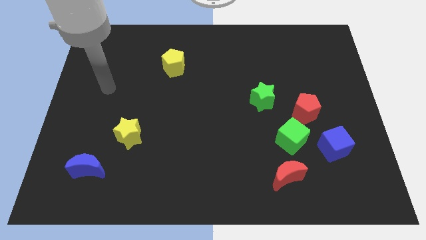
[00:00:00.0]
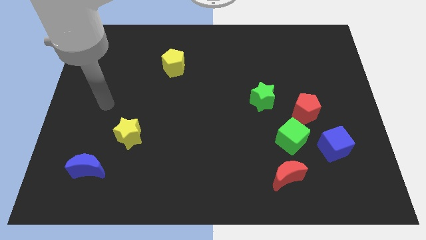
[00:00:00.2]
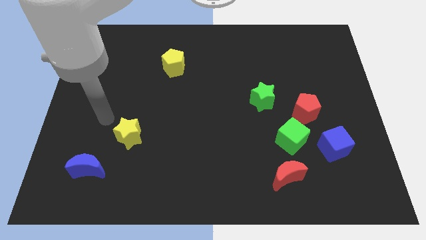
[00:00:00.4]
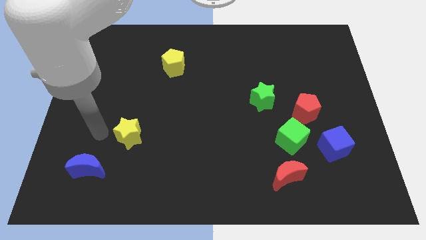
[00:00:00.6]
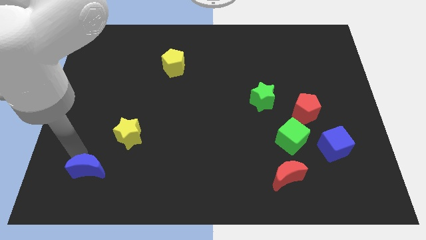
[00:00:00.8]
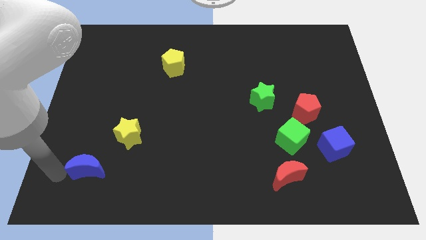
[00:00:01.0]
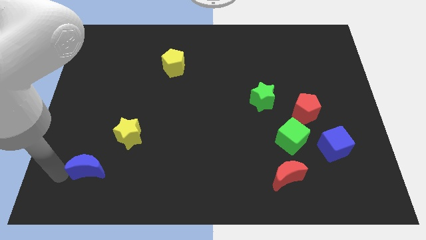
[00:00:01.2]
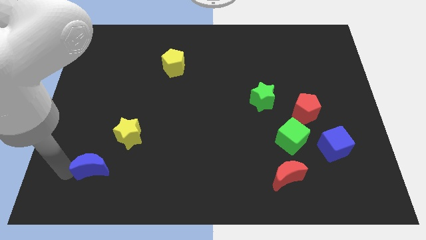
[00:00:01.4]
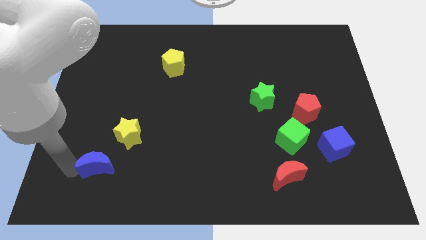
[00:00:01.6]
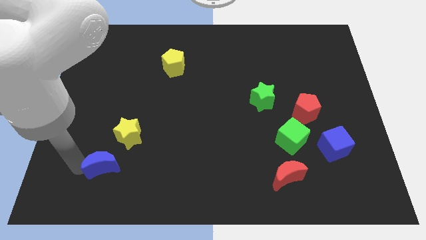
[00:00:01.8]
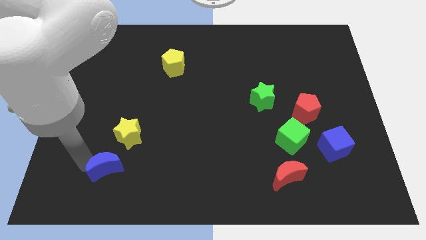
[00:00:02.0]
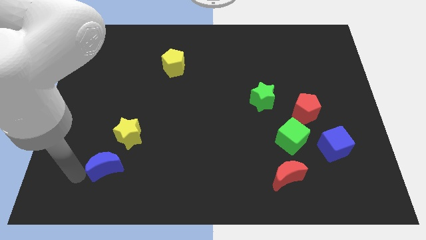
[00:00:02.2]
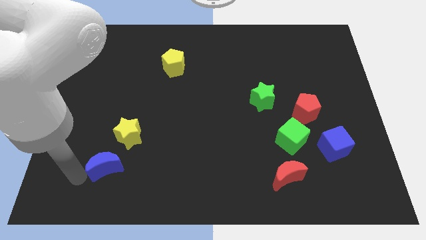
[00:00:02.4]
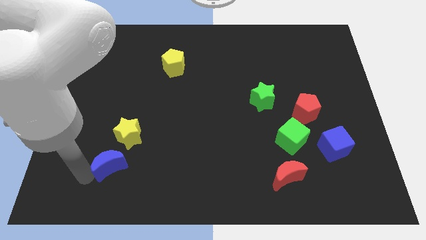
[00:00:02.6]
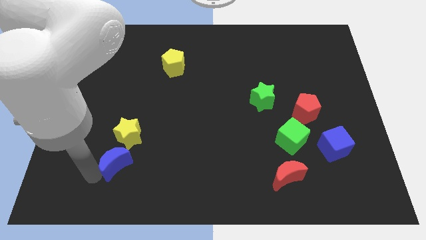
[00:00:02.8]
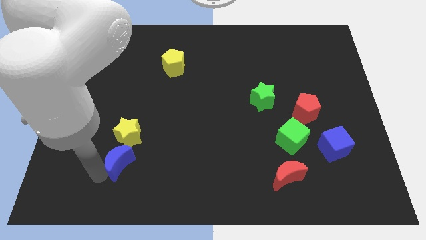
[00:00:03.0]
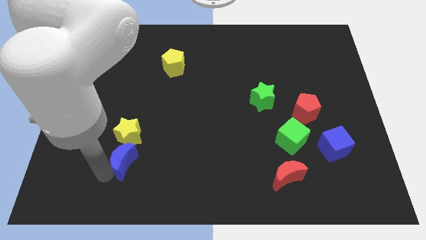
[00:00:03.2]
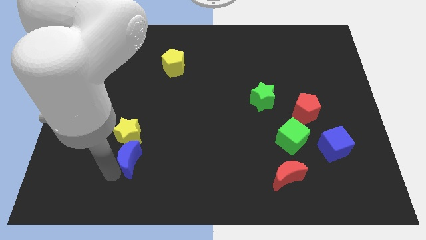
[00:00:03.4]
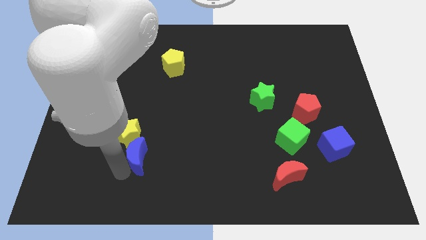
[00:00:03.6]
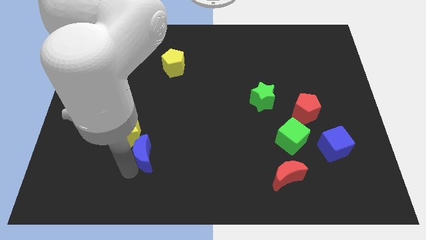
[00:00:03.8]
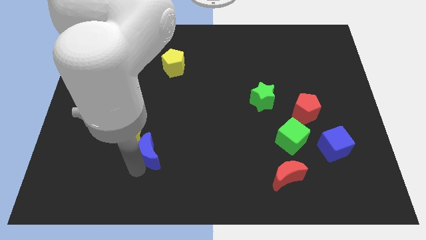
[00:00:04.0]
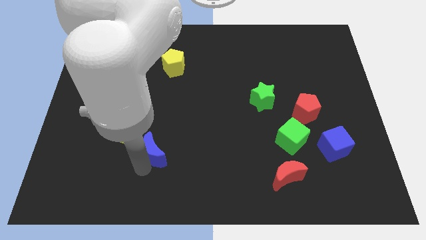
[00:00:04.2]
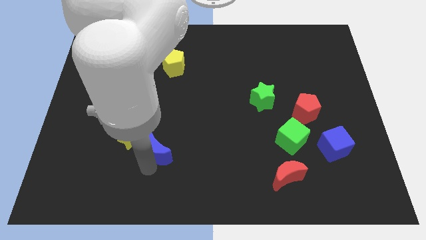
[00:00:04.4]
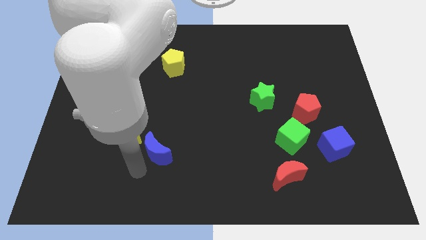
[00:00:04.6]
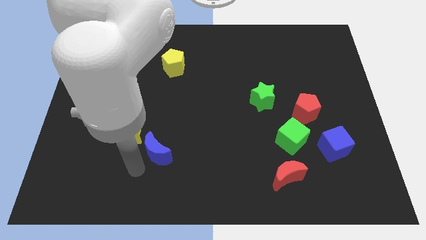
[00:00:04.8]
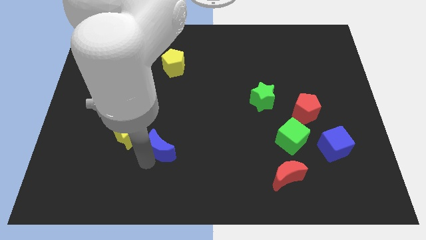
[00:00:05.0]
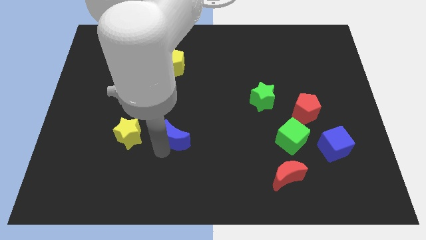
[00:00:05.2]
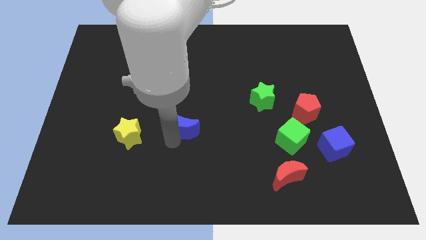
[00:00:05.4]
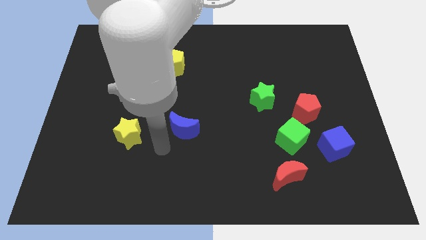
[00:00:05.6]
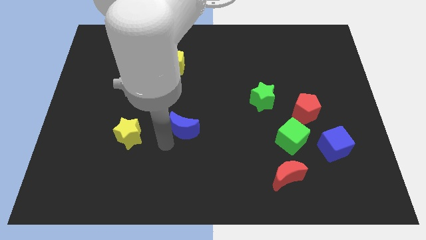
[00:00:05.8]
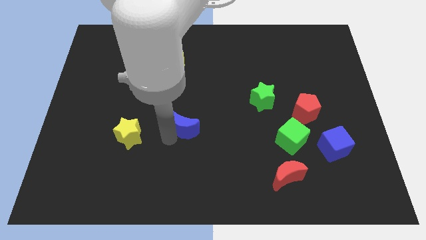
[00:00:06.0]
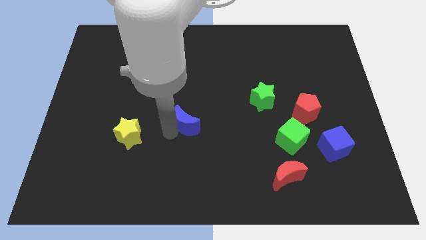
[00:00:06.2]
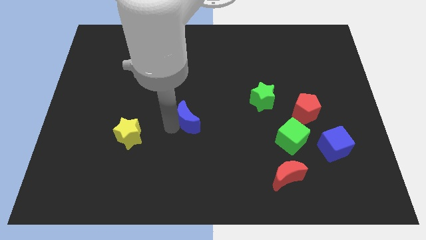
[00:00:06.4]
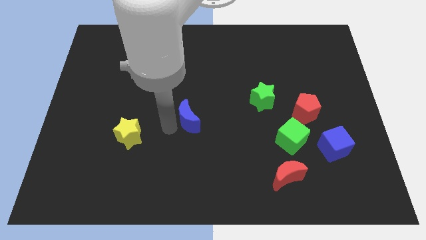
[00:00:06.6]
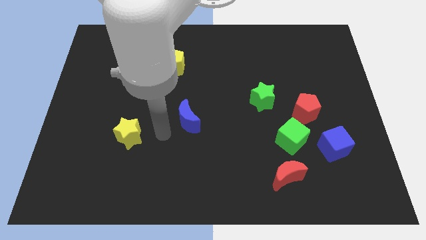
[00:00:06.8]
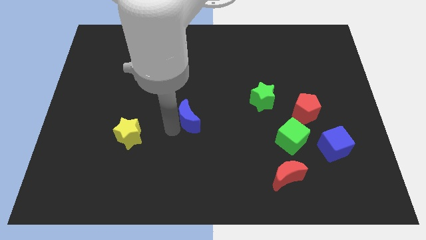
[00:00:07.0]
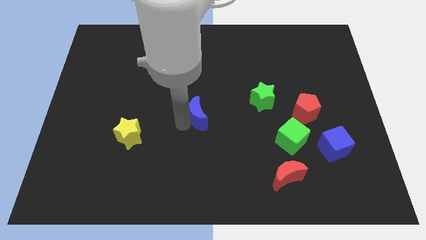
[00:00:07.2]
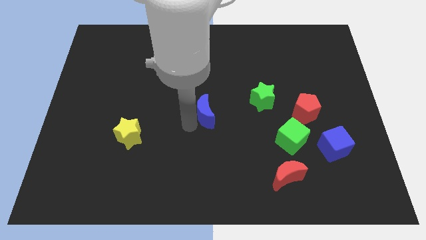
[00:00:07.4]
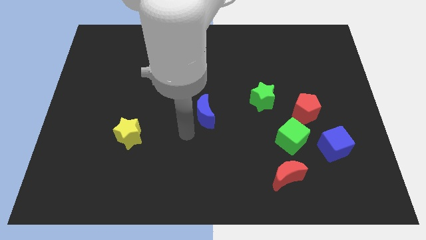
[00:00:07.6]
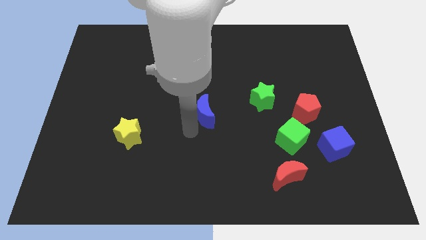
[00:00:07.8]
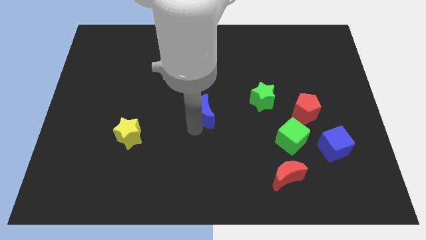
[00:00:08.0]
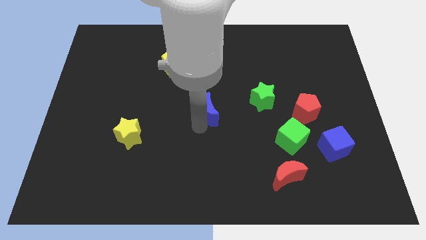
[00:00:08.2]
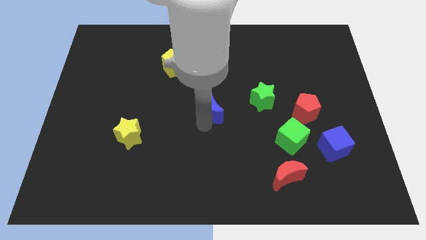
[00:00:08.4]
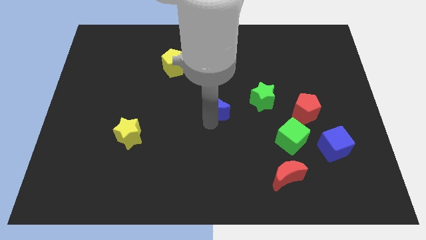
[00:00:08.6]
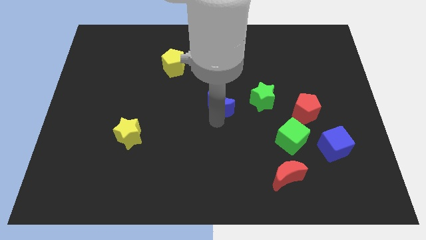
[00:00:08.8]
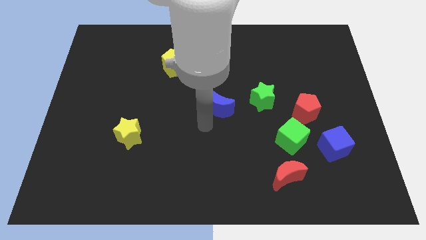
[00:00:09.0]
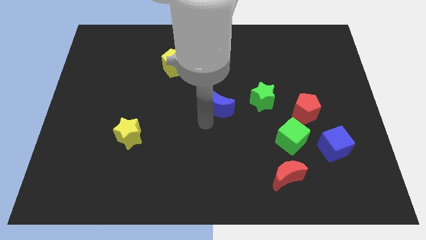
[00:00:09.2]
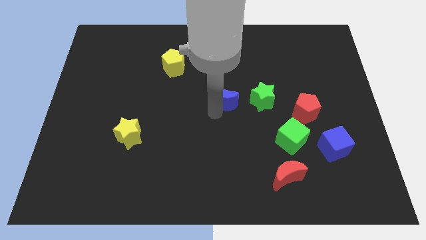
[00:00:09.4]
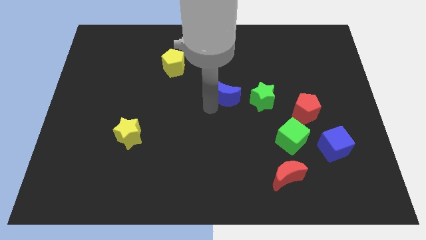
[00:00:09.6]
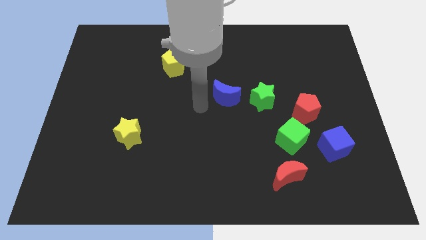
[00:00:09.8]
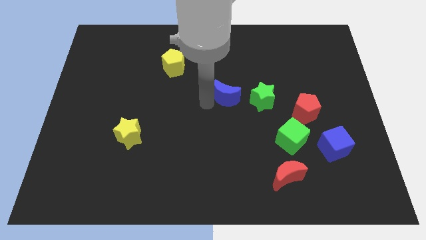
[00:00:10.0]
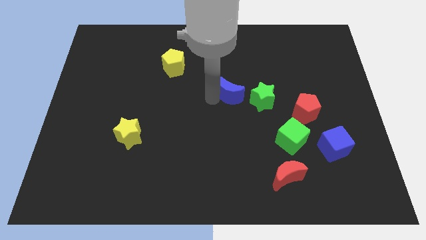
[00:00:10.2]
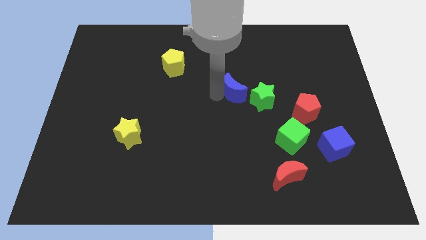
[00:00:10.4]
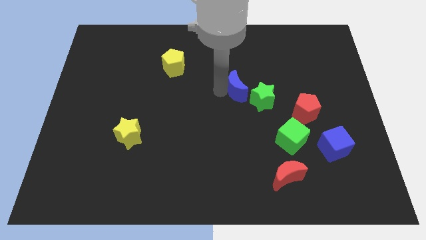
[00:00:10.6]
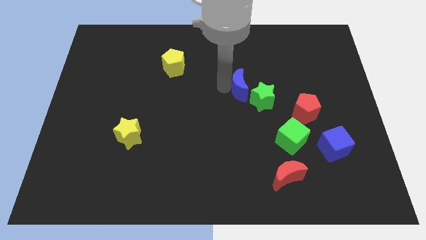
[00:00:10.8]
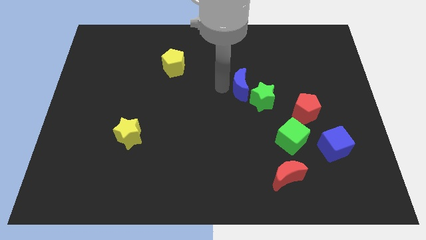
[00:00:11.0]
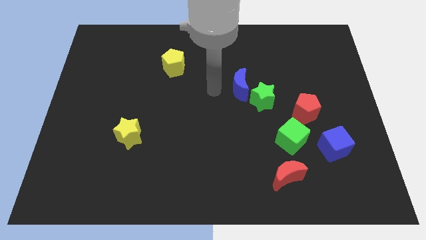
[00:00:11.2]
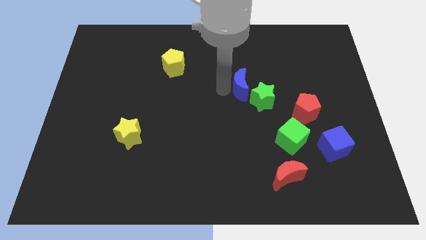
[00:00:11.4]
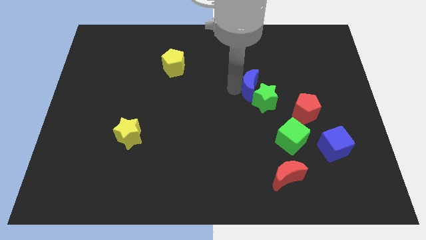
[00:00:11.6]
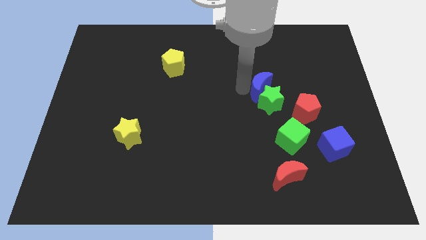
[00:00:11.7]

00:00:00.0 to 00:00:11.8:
move the blue moon to the top right side of the green star

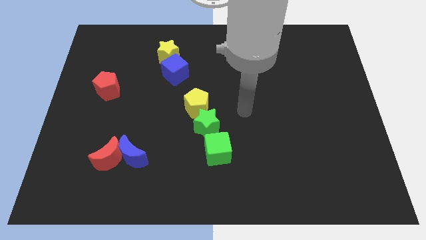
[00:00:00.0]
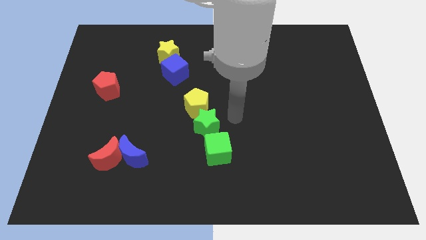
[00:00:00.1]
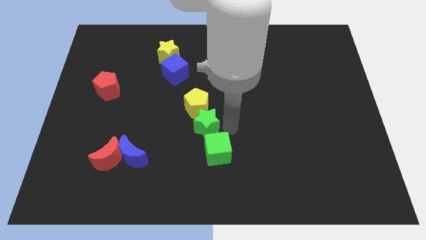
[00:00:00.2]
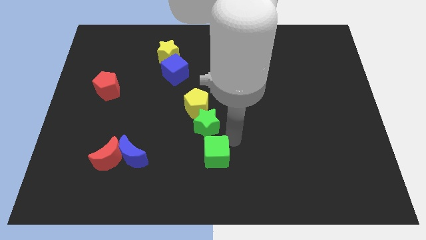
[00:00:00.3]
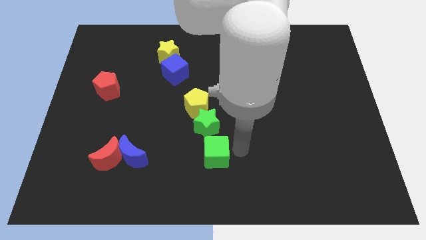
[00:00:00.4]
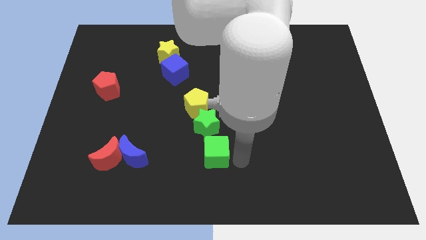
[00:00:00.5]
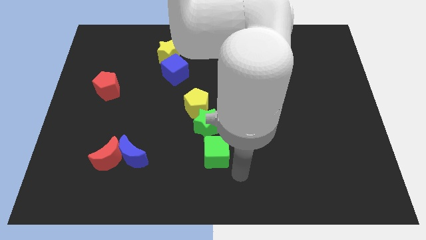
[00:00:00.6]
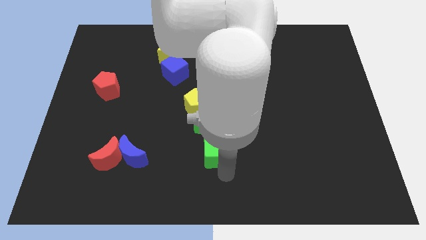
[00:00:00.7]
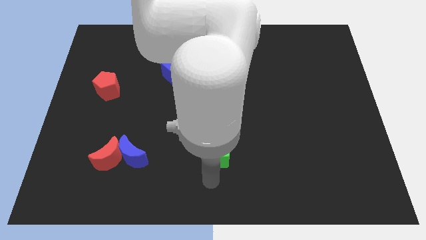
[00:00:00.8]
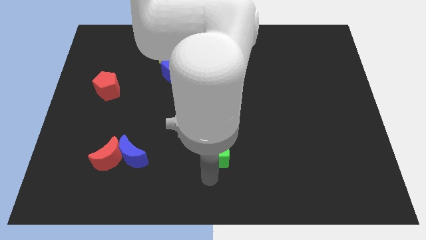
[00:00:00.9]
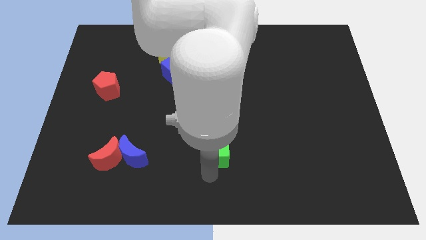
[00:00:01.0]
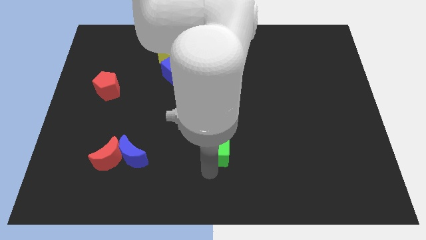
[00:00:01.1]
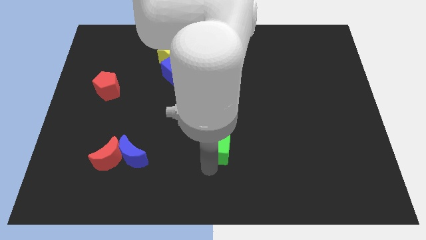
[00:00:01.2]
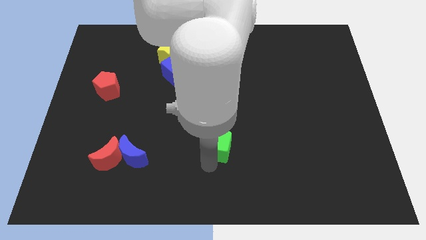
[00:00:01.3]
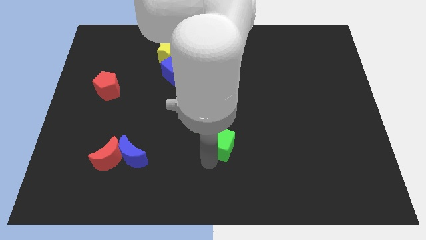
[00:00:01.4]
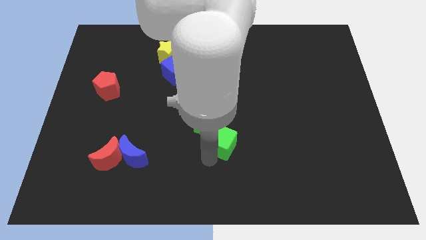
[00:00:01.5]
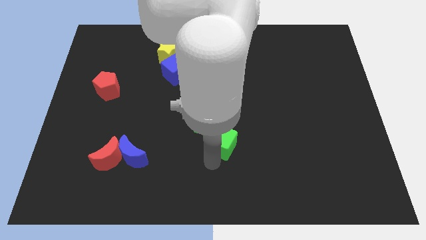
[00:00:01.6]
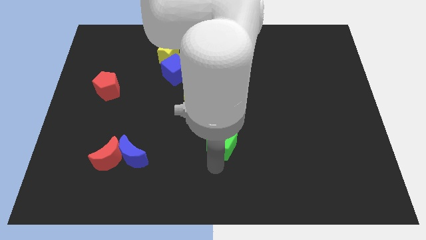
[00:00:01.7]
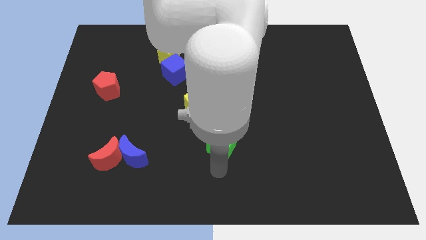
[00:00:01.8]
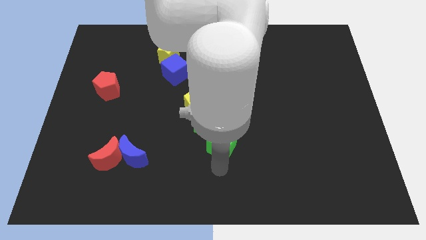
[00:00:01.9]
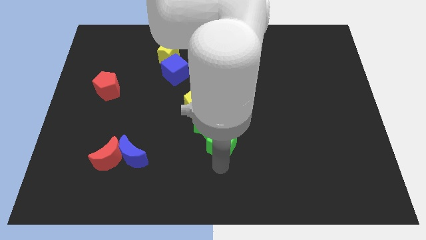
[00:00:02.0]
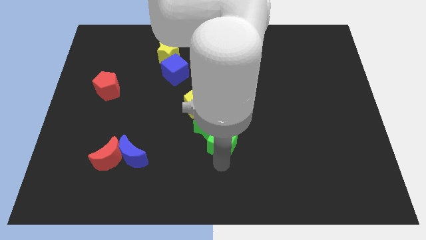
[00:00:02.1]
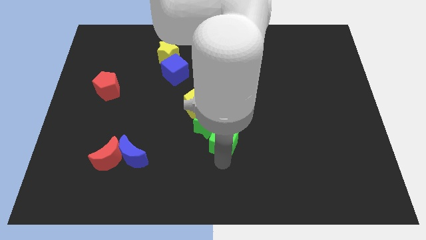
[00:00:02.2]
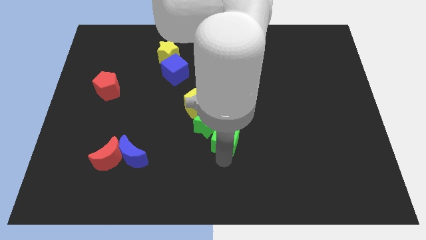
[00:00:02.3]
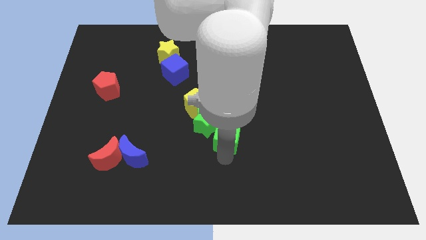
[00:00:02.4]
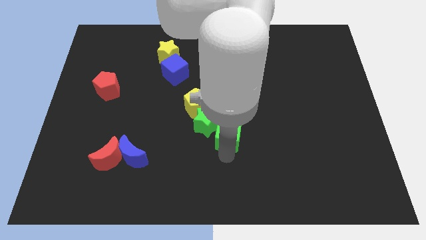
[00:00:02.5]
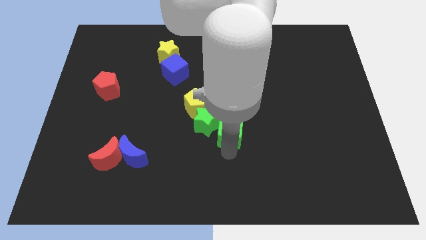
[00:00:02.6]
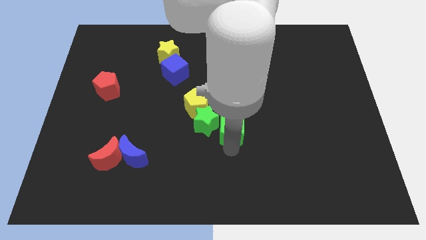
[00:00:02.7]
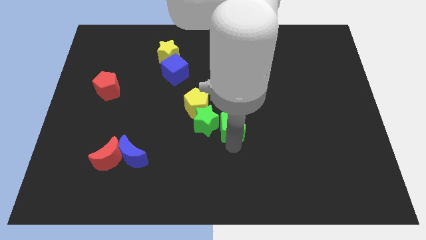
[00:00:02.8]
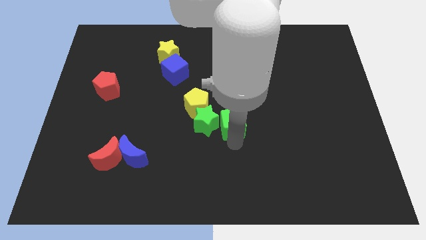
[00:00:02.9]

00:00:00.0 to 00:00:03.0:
put the green cube to the top right of the green star
